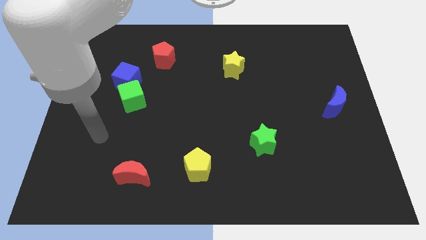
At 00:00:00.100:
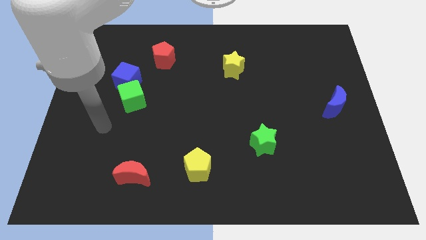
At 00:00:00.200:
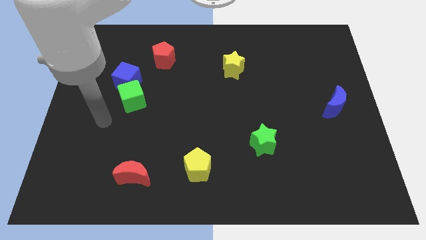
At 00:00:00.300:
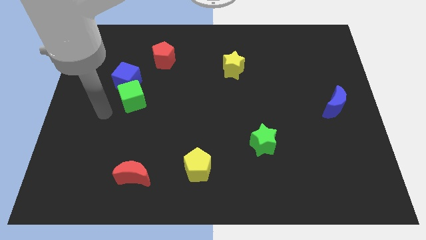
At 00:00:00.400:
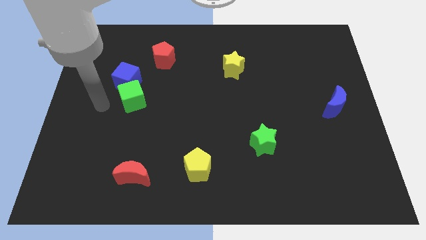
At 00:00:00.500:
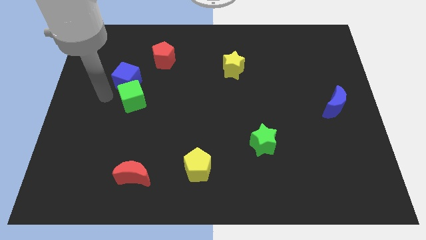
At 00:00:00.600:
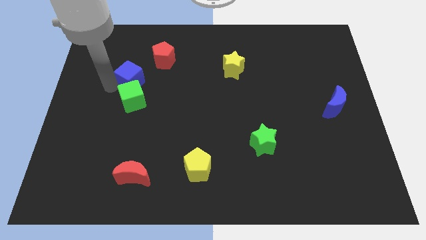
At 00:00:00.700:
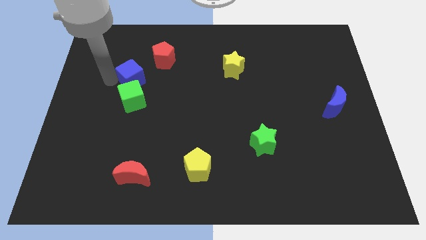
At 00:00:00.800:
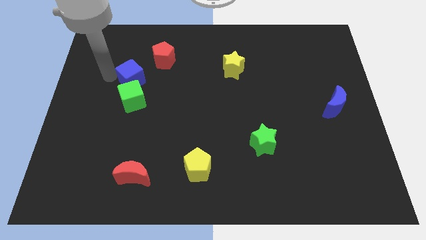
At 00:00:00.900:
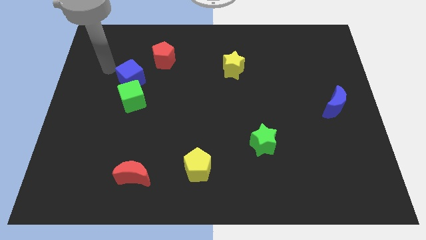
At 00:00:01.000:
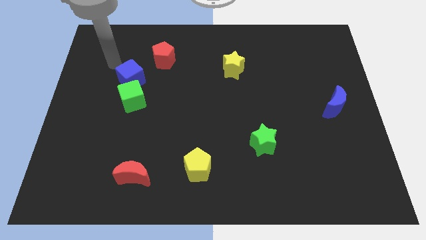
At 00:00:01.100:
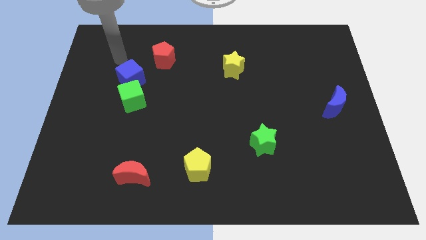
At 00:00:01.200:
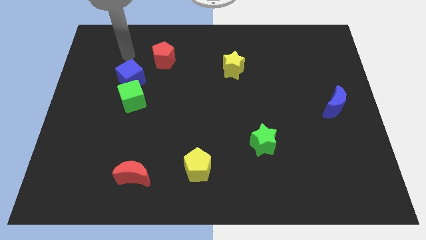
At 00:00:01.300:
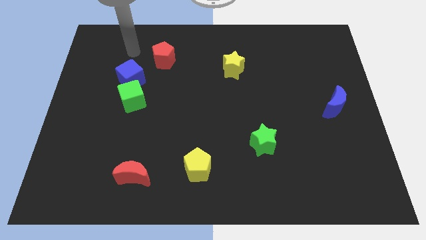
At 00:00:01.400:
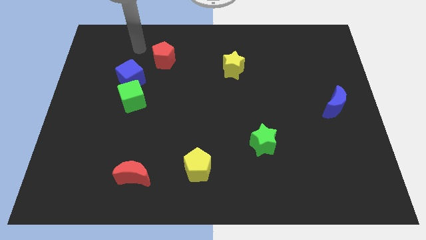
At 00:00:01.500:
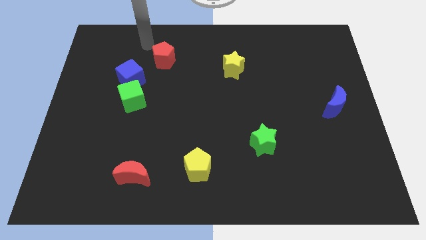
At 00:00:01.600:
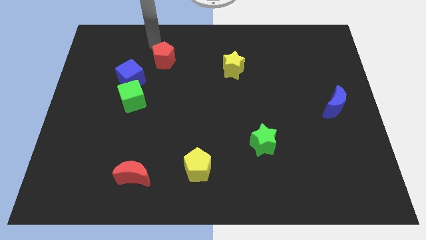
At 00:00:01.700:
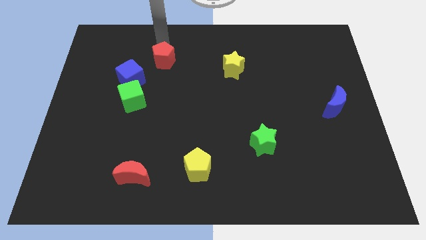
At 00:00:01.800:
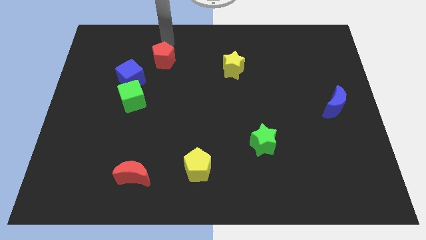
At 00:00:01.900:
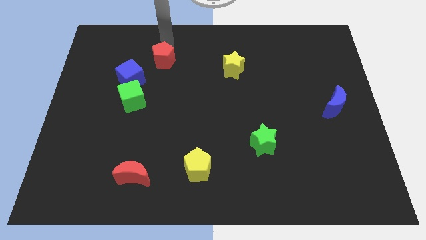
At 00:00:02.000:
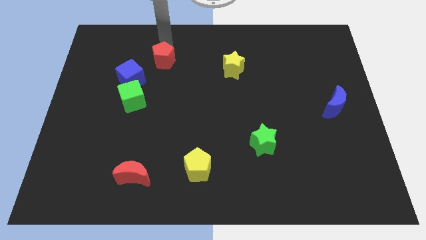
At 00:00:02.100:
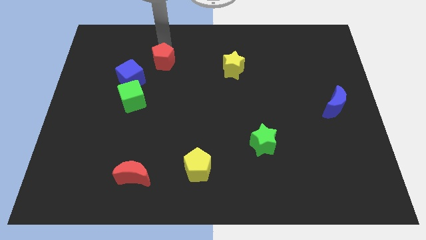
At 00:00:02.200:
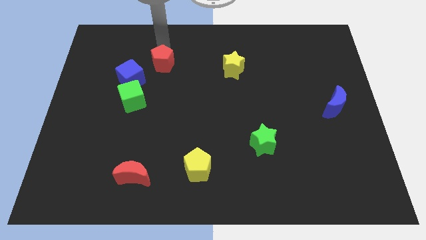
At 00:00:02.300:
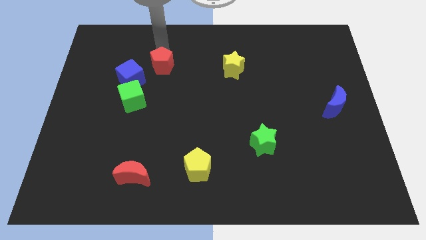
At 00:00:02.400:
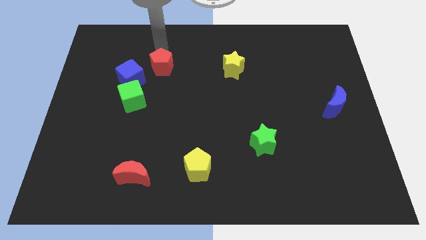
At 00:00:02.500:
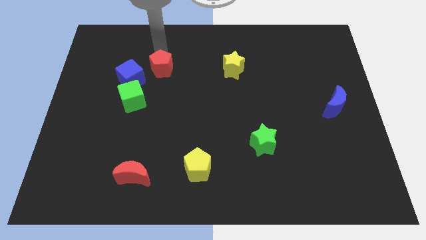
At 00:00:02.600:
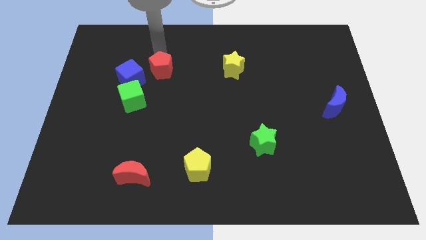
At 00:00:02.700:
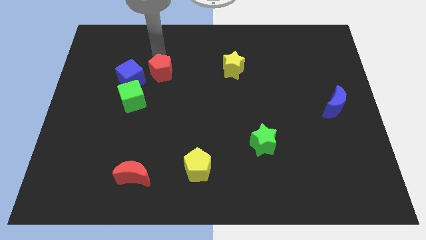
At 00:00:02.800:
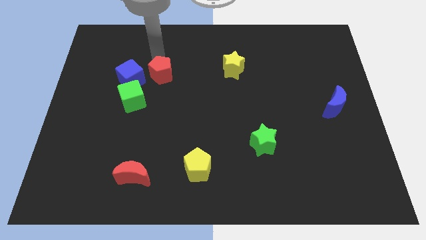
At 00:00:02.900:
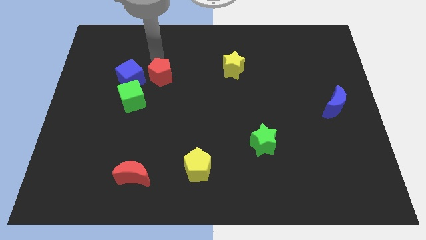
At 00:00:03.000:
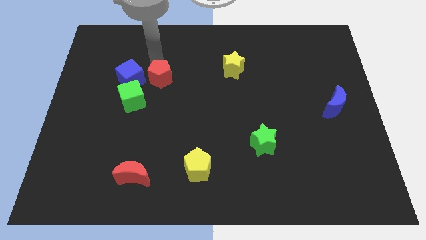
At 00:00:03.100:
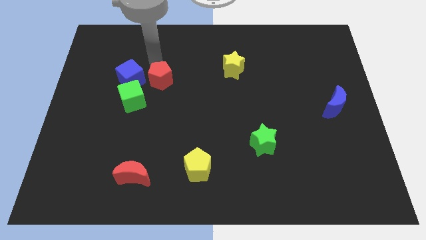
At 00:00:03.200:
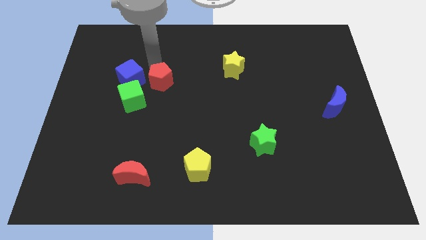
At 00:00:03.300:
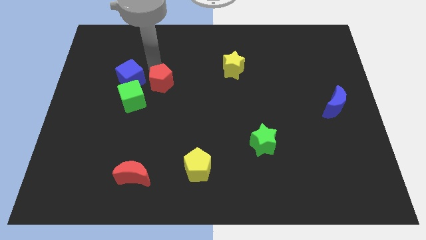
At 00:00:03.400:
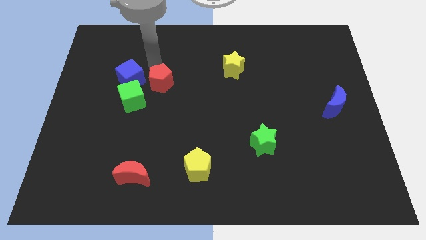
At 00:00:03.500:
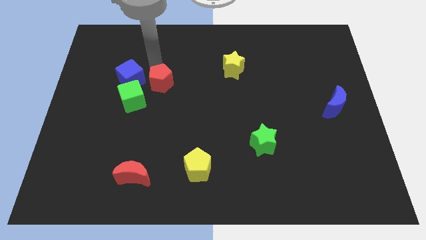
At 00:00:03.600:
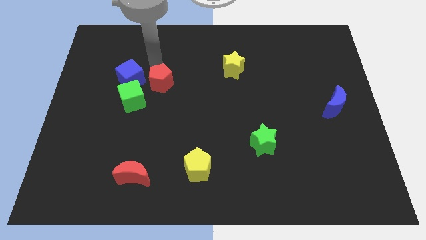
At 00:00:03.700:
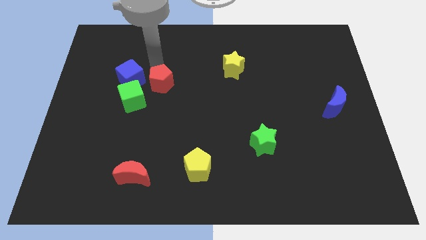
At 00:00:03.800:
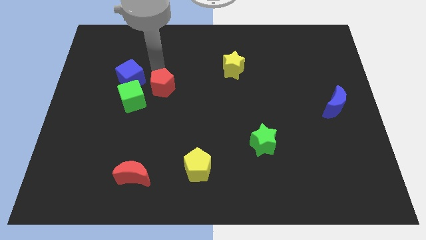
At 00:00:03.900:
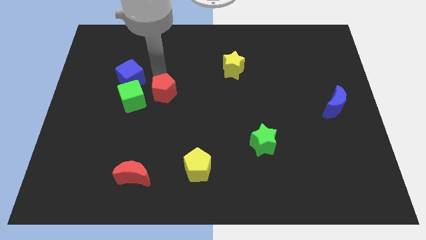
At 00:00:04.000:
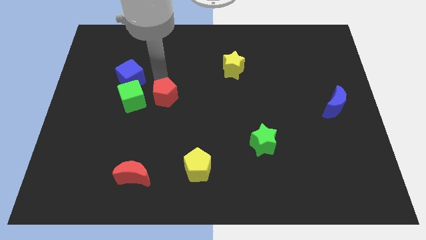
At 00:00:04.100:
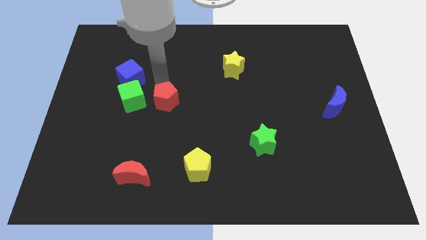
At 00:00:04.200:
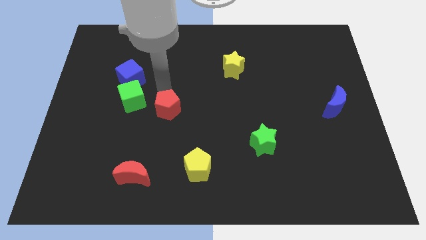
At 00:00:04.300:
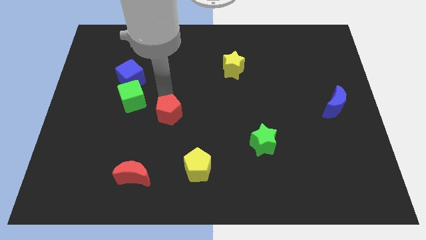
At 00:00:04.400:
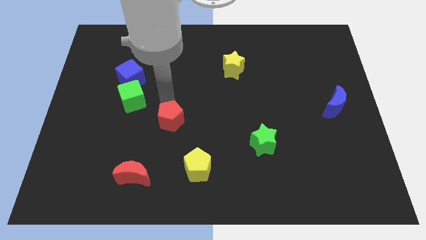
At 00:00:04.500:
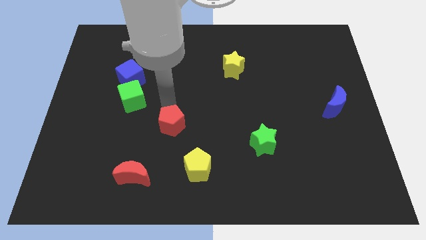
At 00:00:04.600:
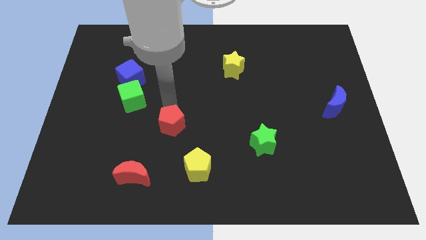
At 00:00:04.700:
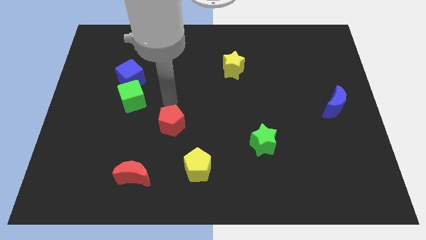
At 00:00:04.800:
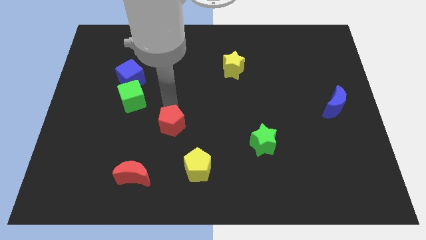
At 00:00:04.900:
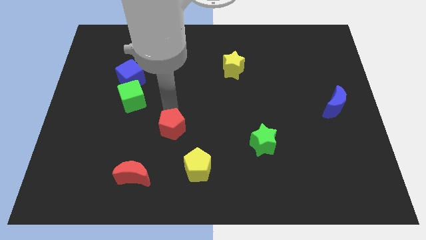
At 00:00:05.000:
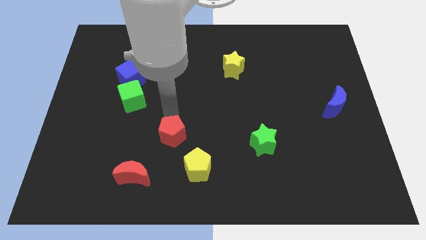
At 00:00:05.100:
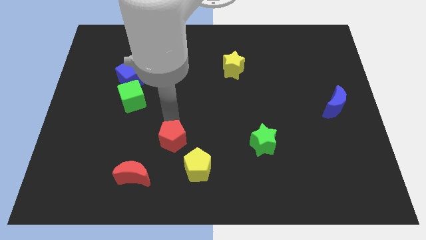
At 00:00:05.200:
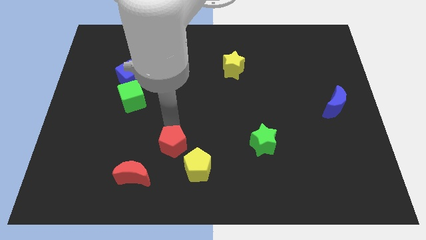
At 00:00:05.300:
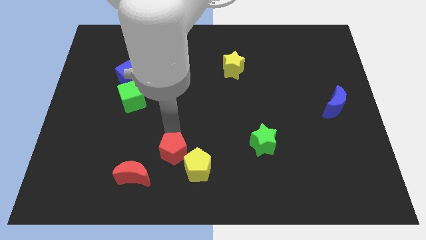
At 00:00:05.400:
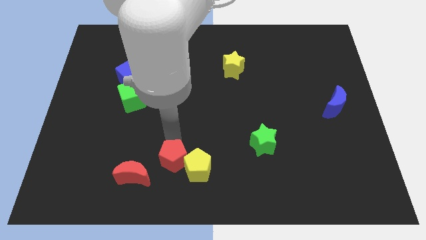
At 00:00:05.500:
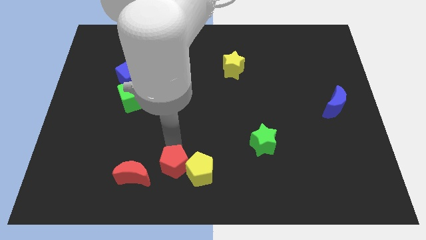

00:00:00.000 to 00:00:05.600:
move the red pentagon to the bottom side

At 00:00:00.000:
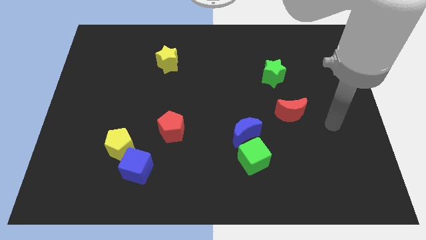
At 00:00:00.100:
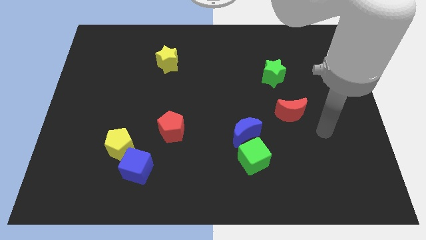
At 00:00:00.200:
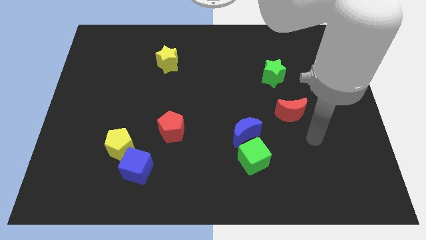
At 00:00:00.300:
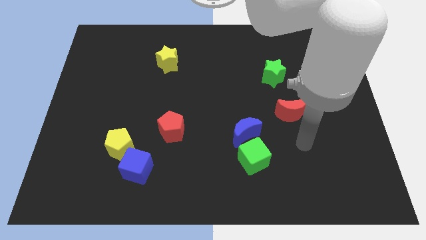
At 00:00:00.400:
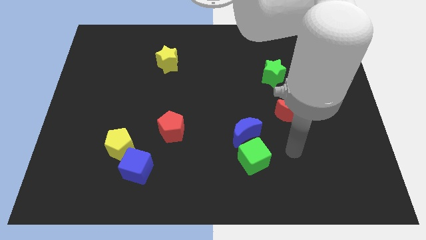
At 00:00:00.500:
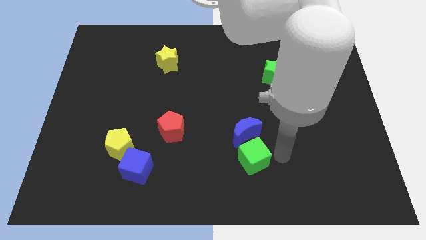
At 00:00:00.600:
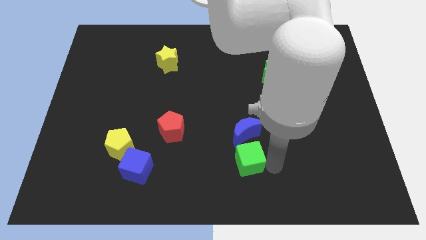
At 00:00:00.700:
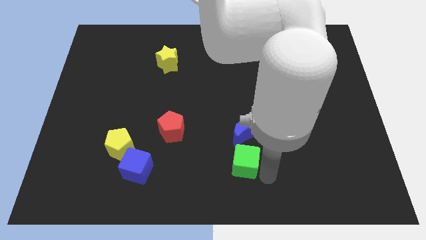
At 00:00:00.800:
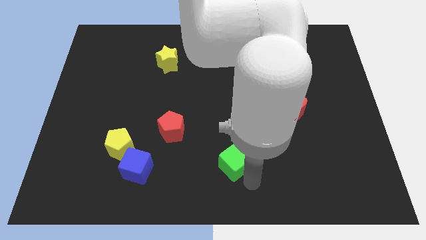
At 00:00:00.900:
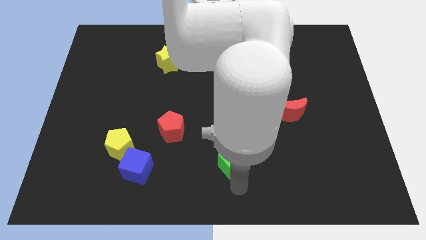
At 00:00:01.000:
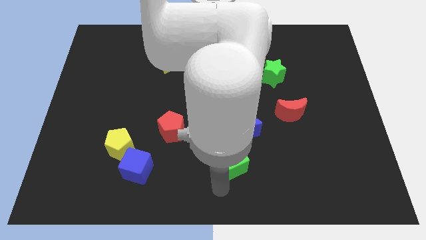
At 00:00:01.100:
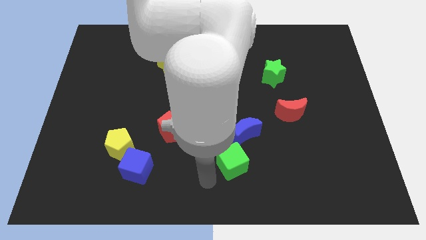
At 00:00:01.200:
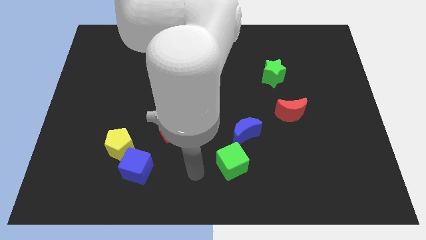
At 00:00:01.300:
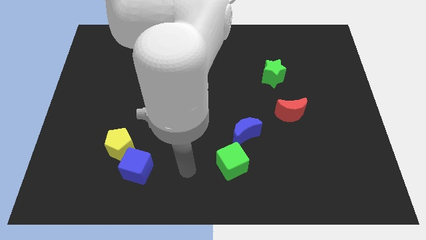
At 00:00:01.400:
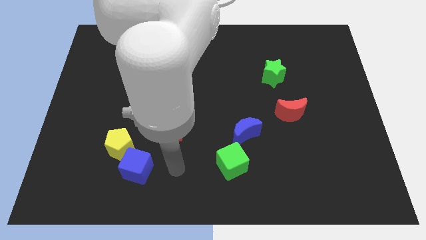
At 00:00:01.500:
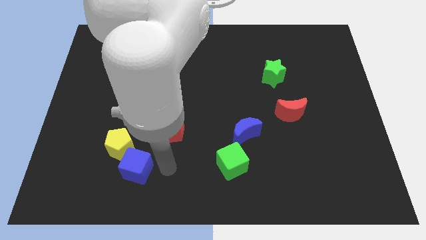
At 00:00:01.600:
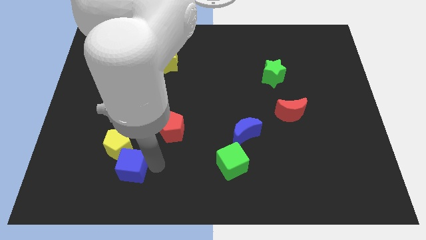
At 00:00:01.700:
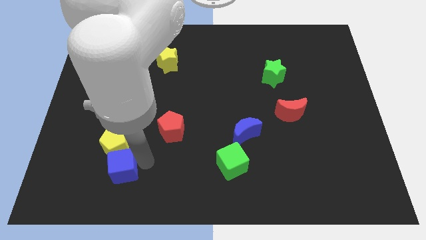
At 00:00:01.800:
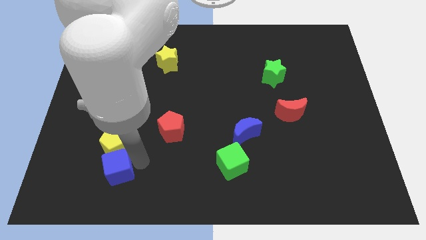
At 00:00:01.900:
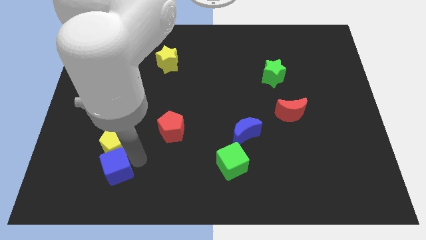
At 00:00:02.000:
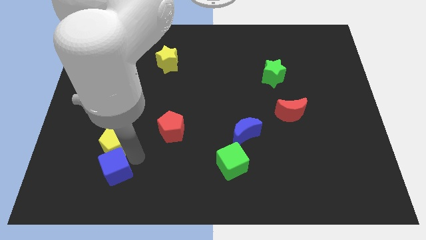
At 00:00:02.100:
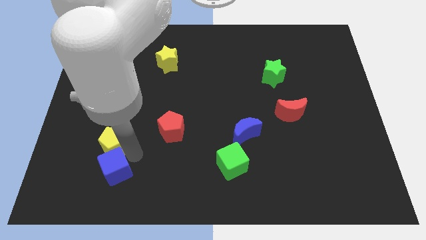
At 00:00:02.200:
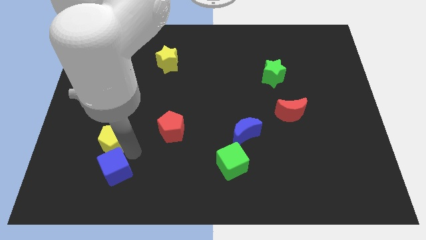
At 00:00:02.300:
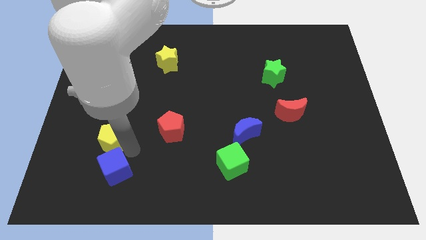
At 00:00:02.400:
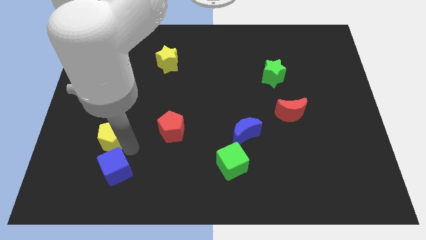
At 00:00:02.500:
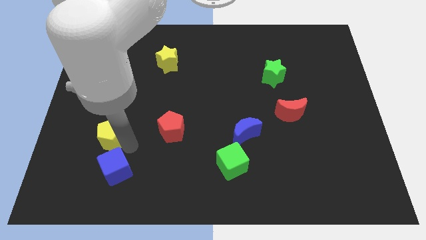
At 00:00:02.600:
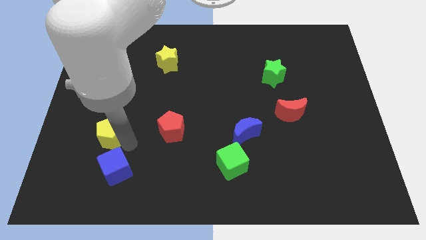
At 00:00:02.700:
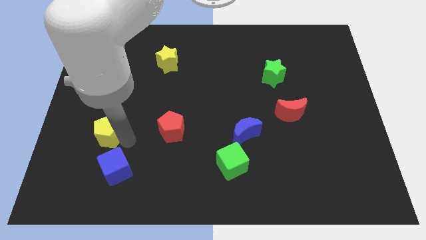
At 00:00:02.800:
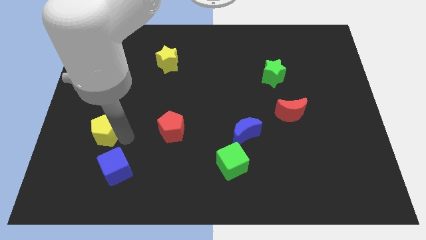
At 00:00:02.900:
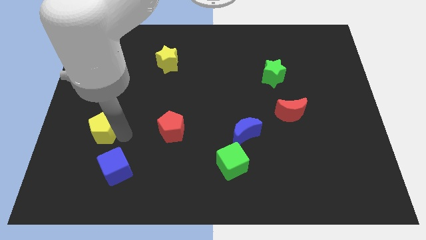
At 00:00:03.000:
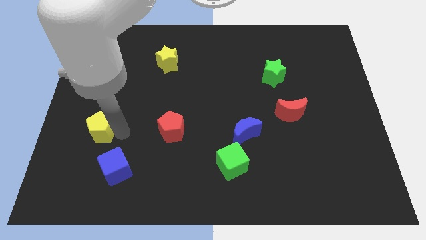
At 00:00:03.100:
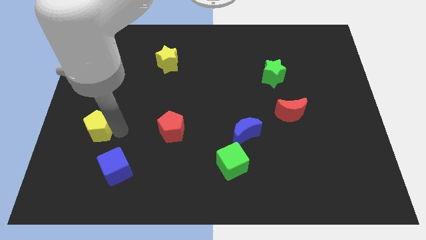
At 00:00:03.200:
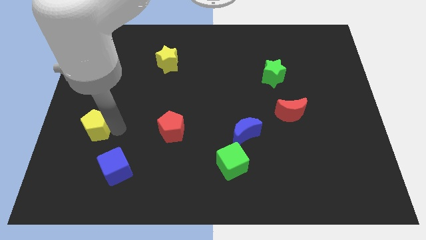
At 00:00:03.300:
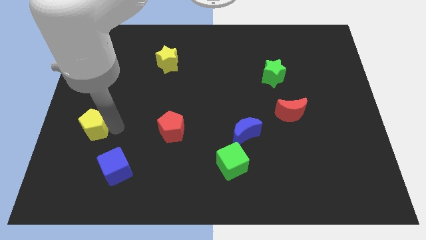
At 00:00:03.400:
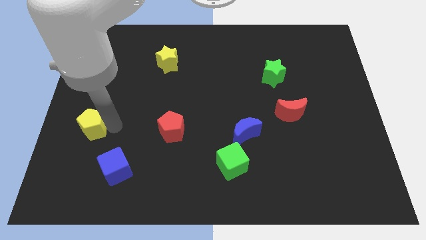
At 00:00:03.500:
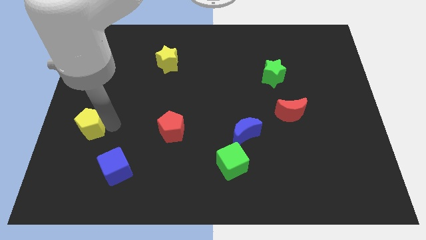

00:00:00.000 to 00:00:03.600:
slide the yellow pentagon to the left side
